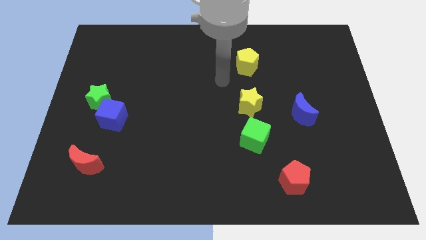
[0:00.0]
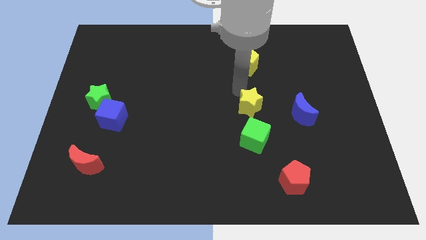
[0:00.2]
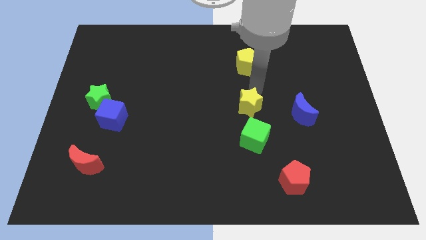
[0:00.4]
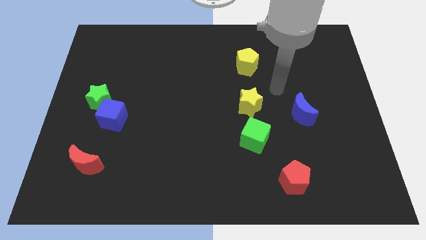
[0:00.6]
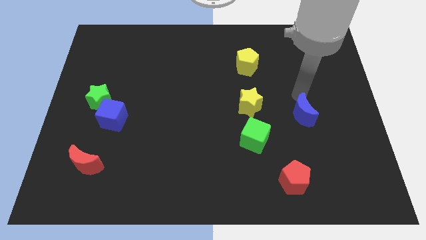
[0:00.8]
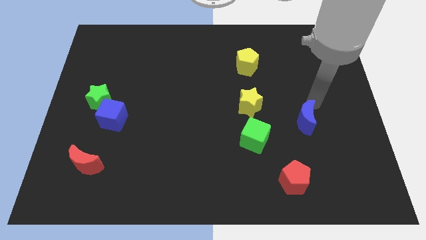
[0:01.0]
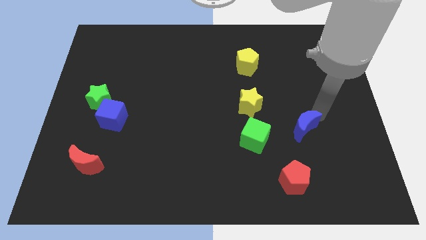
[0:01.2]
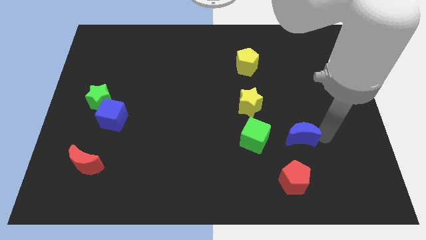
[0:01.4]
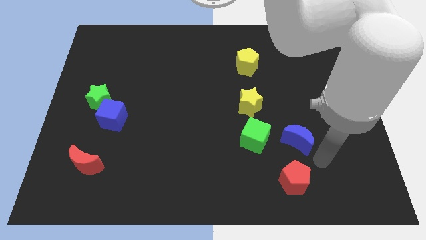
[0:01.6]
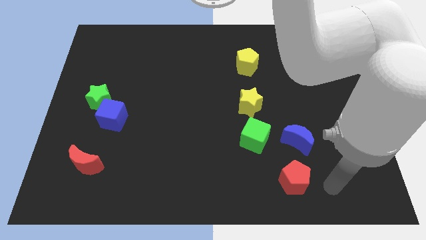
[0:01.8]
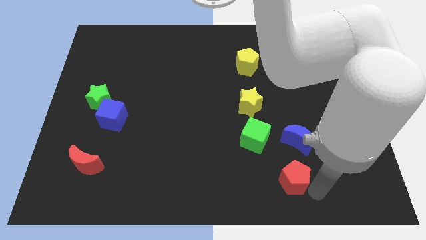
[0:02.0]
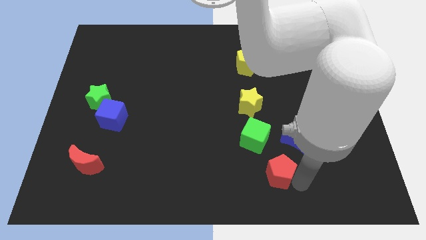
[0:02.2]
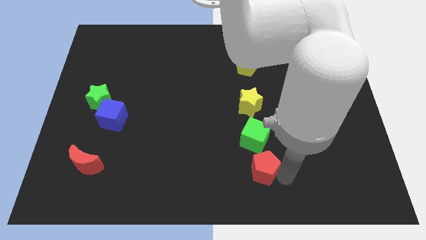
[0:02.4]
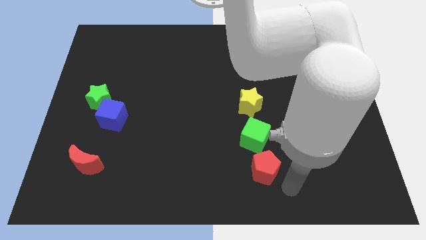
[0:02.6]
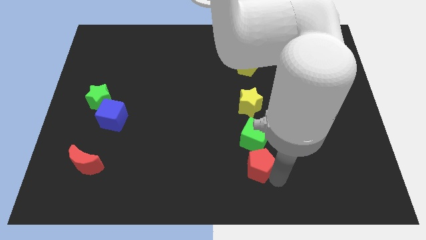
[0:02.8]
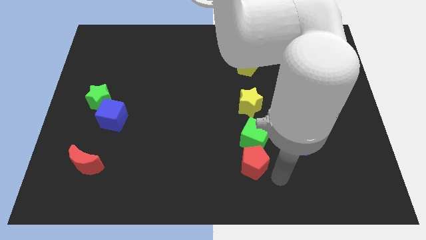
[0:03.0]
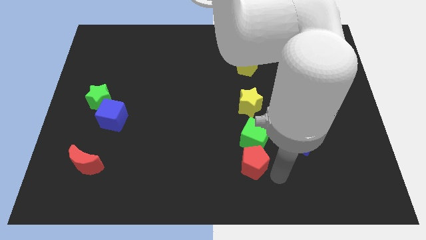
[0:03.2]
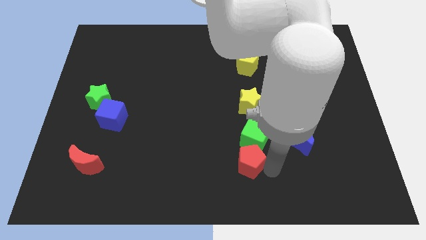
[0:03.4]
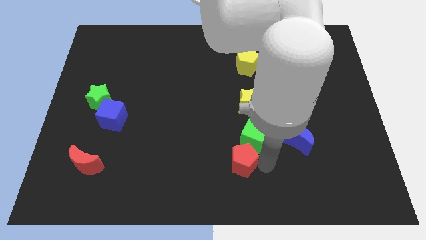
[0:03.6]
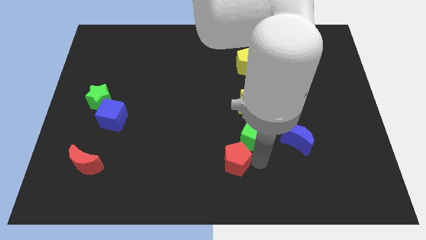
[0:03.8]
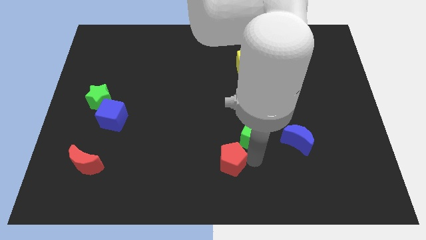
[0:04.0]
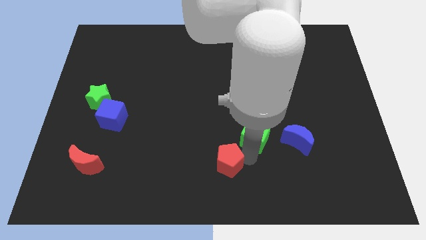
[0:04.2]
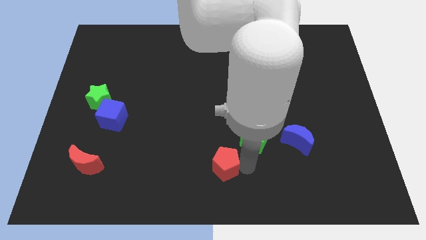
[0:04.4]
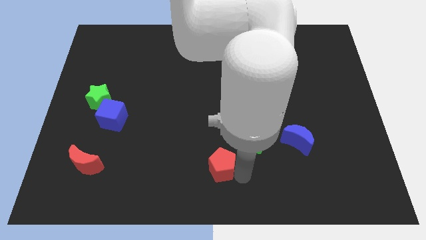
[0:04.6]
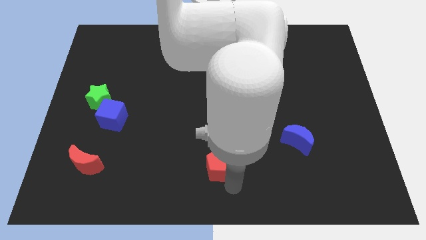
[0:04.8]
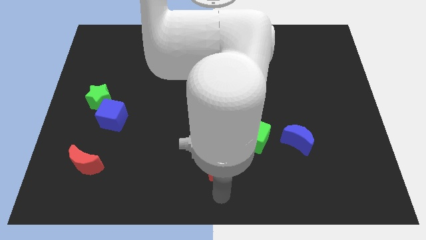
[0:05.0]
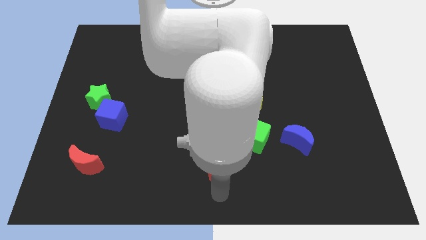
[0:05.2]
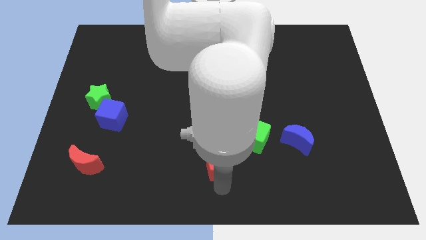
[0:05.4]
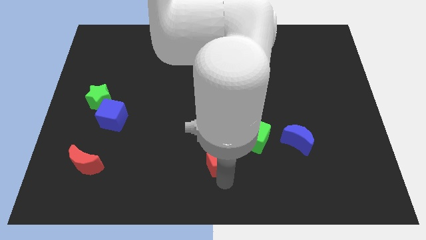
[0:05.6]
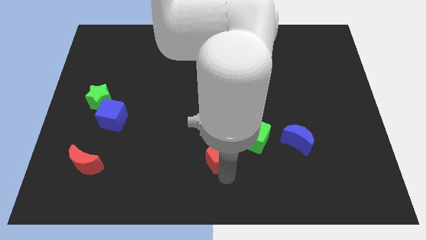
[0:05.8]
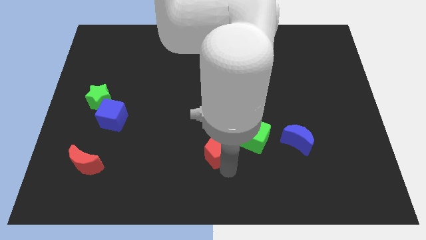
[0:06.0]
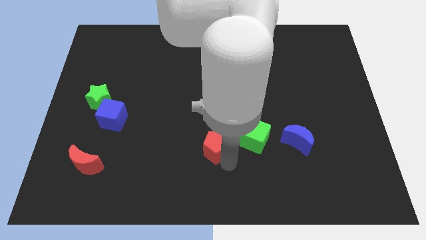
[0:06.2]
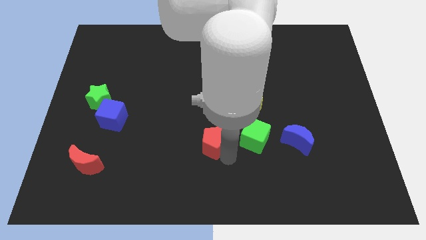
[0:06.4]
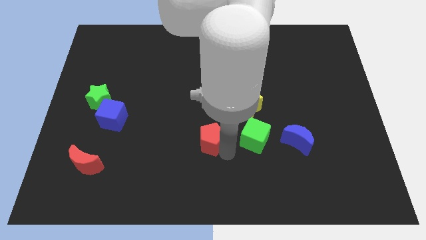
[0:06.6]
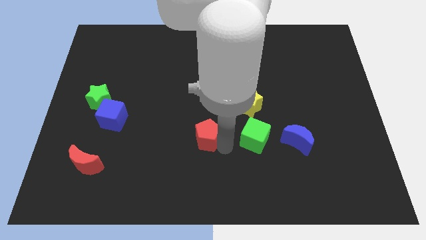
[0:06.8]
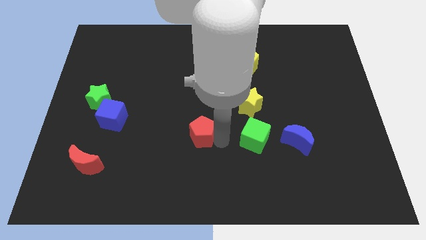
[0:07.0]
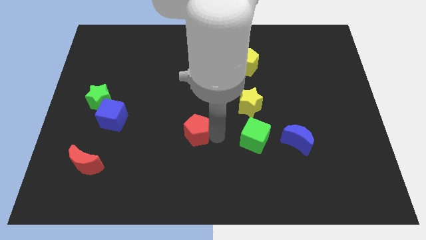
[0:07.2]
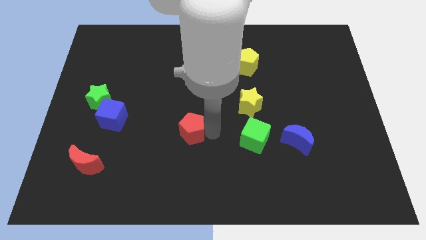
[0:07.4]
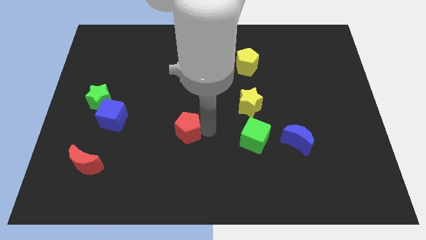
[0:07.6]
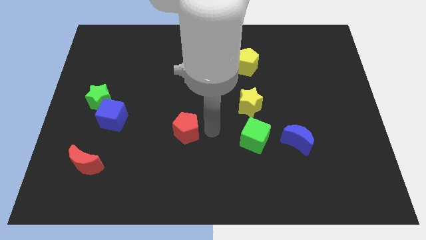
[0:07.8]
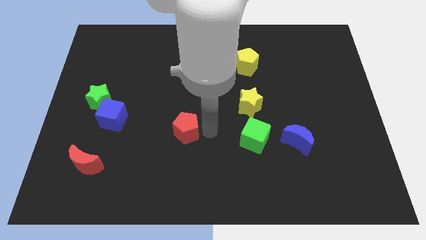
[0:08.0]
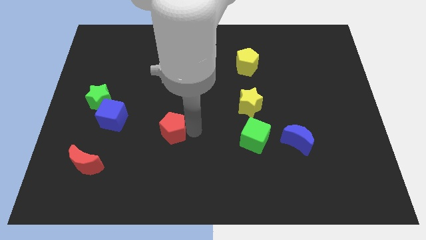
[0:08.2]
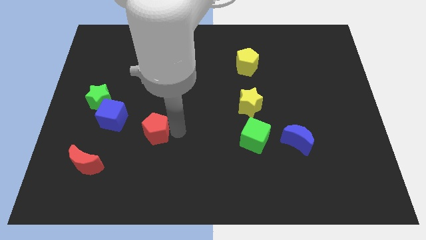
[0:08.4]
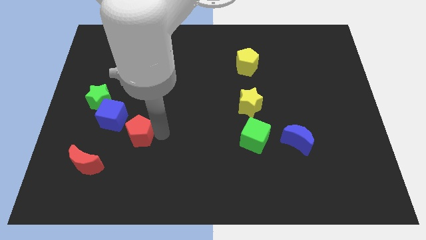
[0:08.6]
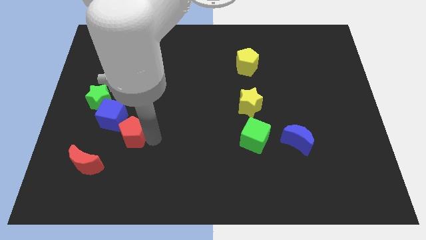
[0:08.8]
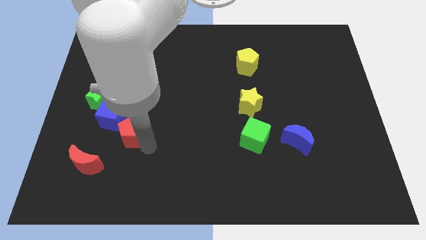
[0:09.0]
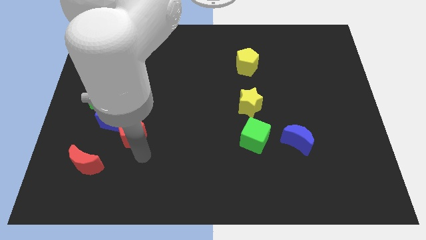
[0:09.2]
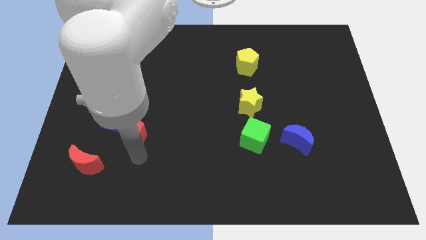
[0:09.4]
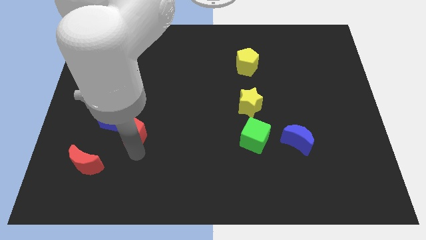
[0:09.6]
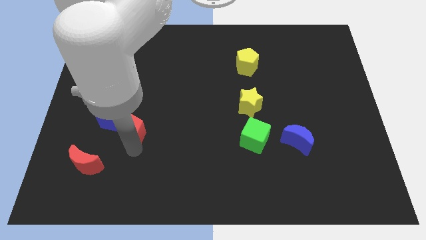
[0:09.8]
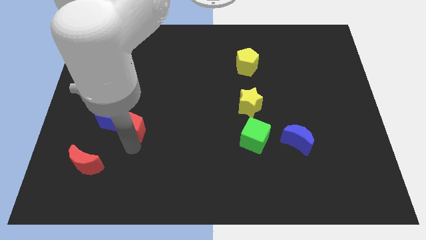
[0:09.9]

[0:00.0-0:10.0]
put the red pentagon close to the blue cube

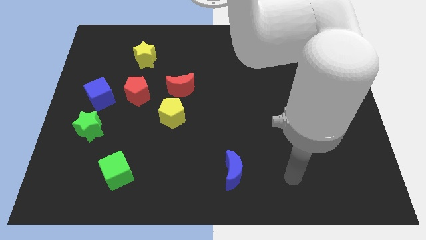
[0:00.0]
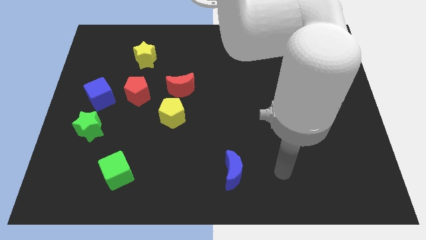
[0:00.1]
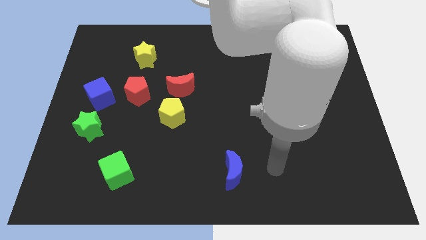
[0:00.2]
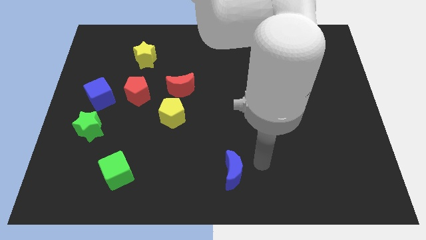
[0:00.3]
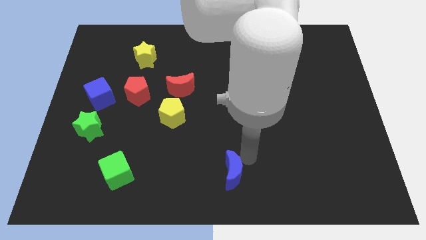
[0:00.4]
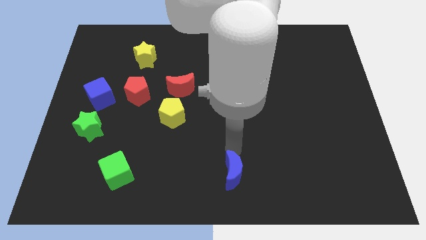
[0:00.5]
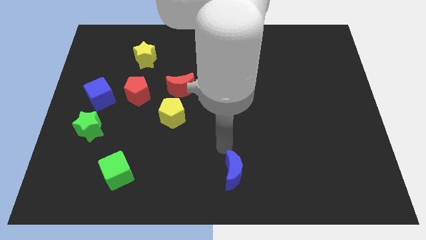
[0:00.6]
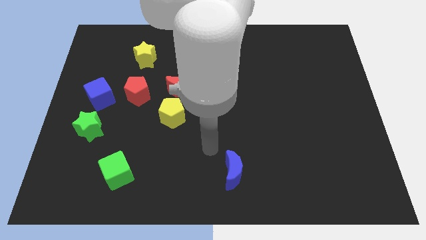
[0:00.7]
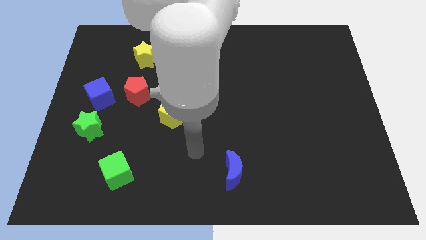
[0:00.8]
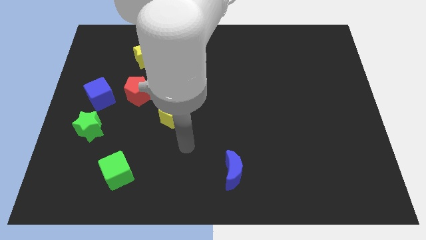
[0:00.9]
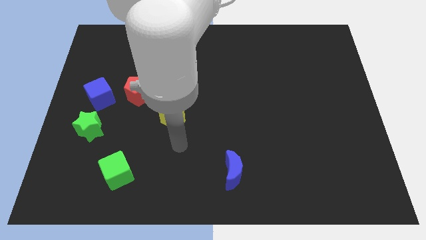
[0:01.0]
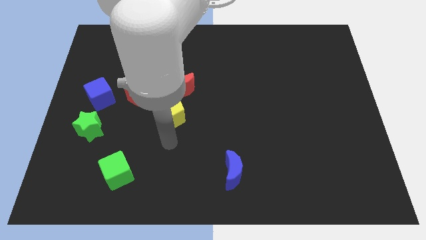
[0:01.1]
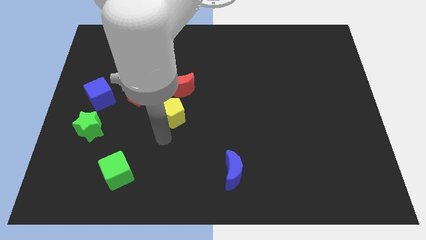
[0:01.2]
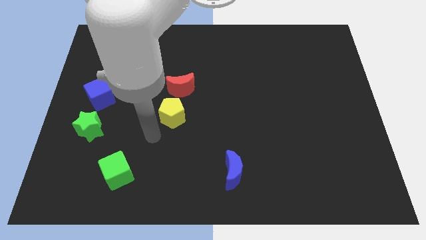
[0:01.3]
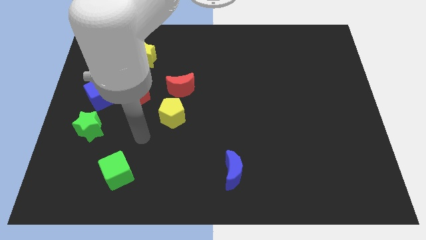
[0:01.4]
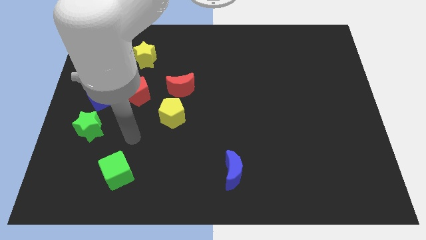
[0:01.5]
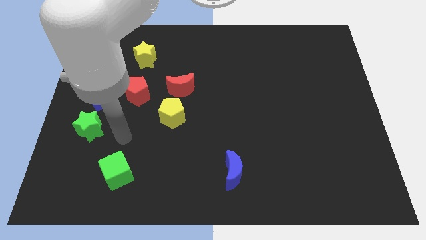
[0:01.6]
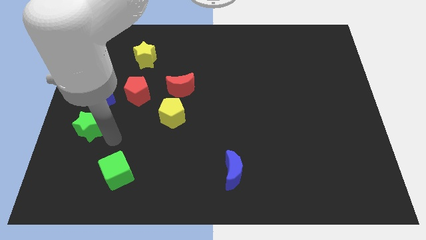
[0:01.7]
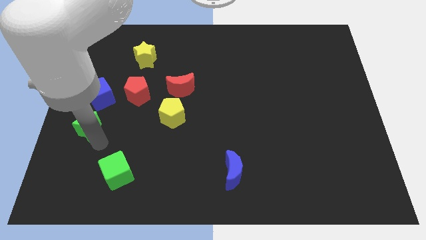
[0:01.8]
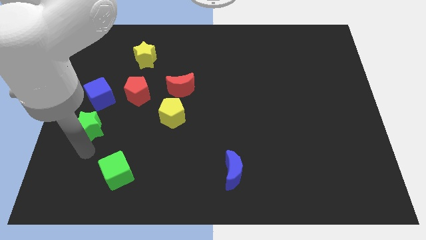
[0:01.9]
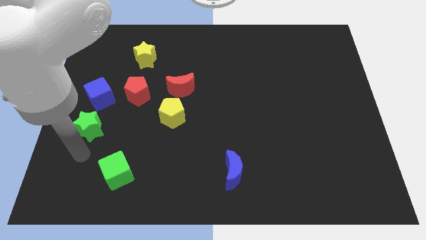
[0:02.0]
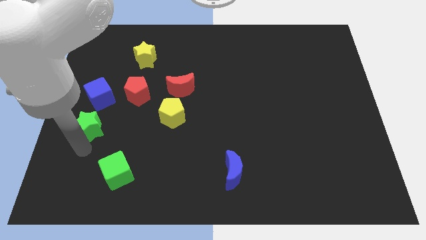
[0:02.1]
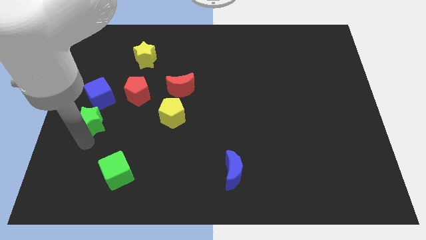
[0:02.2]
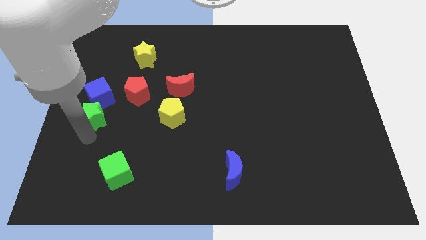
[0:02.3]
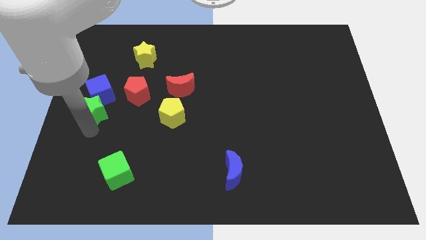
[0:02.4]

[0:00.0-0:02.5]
push the green star to the blue cube
